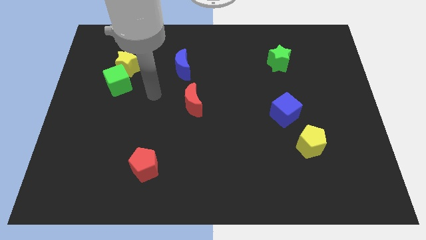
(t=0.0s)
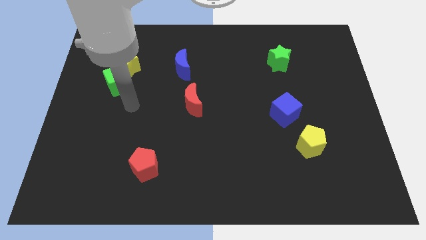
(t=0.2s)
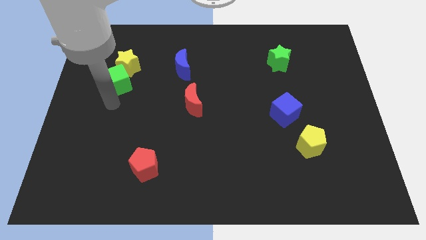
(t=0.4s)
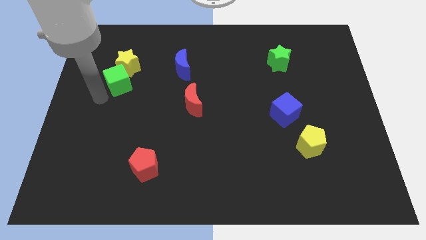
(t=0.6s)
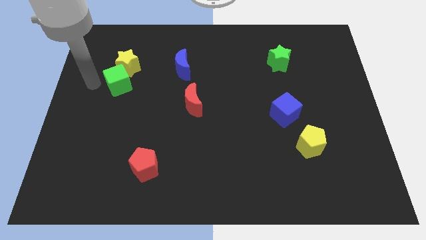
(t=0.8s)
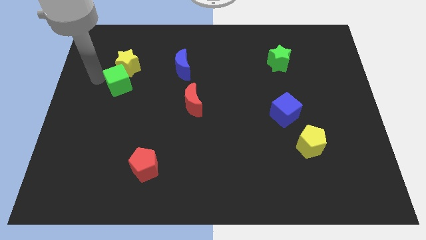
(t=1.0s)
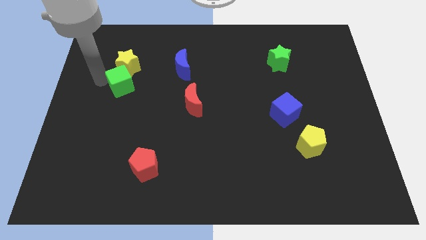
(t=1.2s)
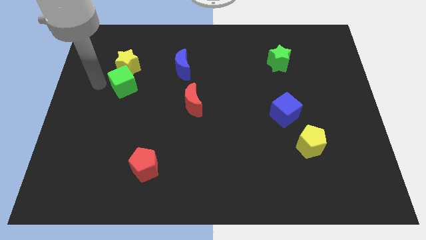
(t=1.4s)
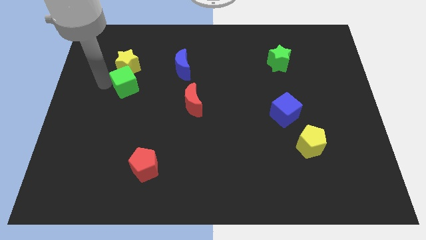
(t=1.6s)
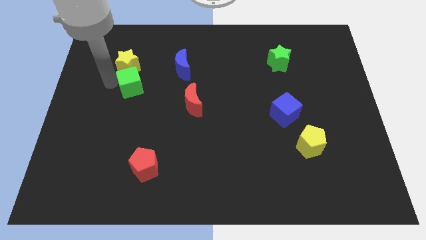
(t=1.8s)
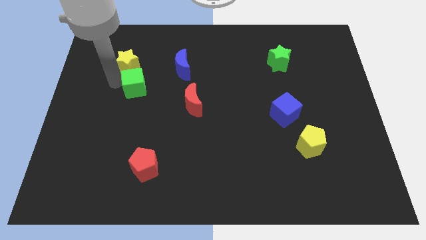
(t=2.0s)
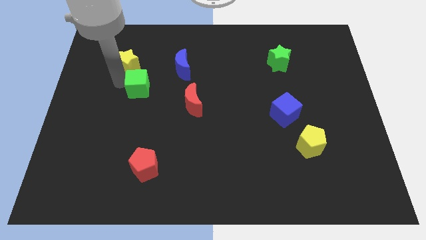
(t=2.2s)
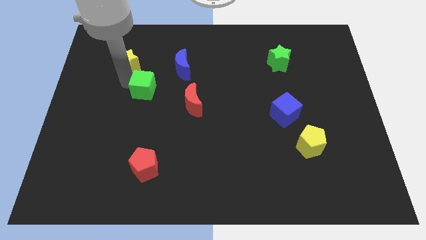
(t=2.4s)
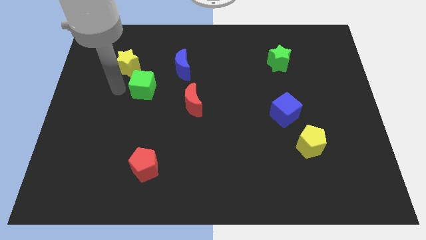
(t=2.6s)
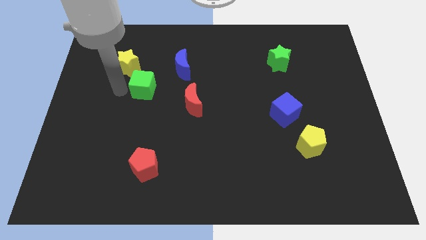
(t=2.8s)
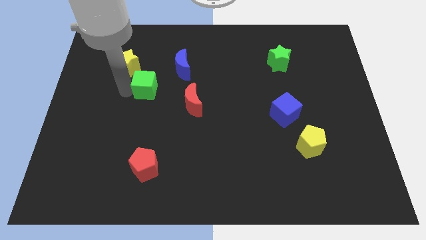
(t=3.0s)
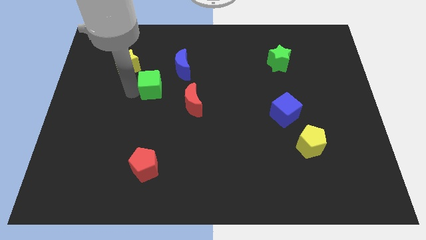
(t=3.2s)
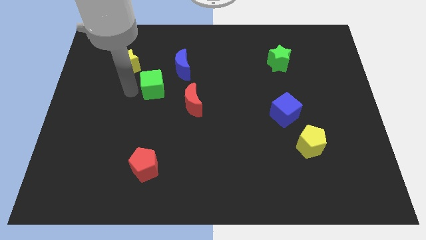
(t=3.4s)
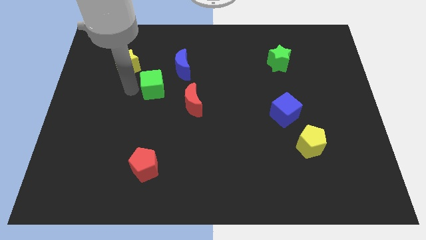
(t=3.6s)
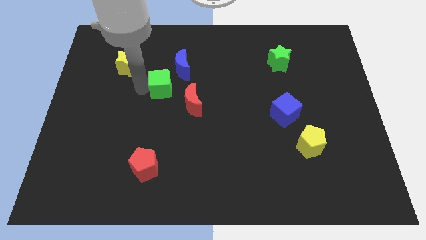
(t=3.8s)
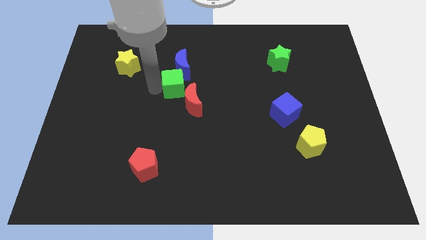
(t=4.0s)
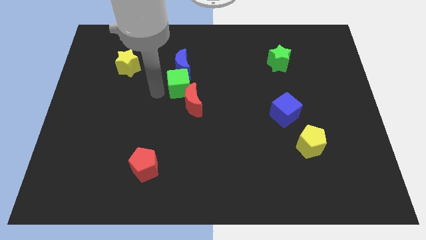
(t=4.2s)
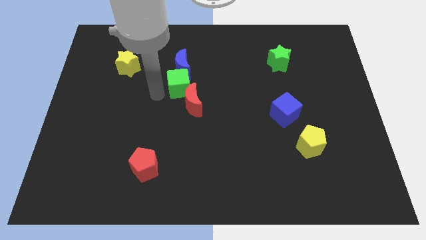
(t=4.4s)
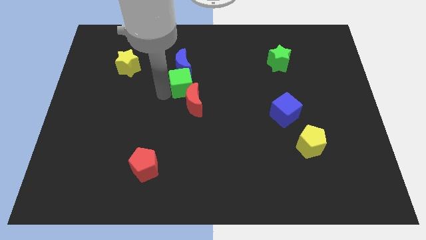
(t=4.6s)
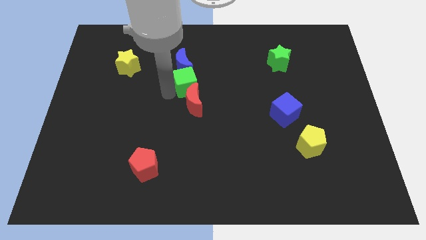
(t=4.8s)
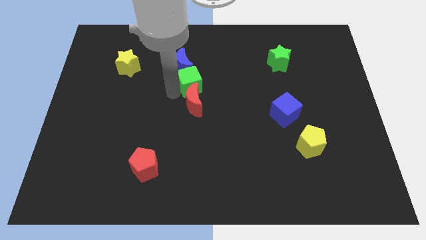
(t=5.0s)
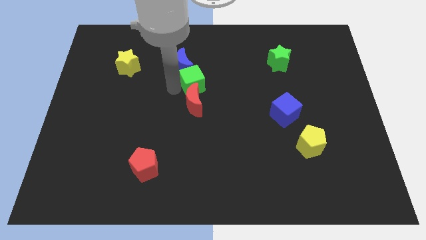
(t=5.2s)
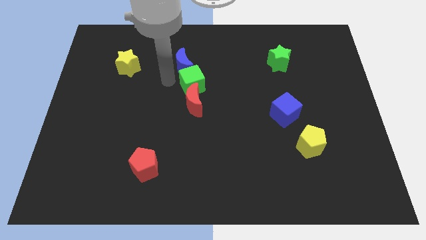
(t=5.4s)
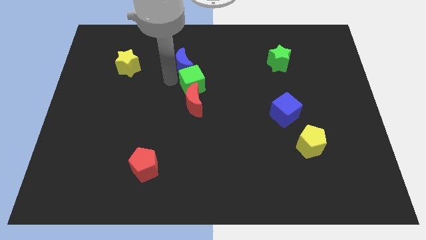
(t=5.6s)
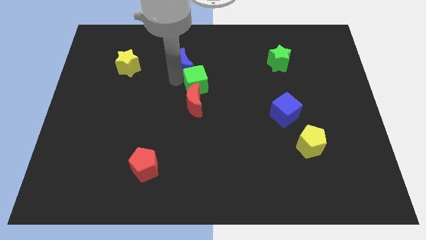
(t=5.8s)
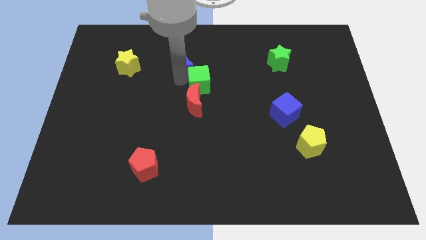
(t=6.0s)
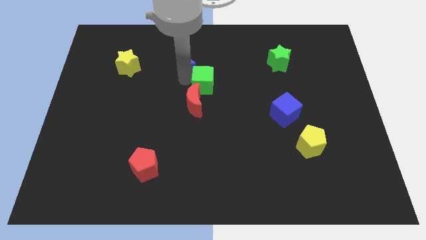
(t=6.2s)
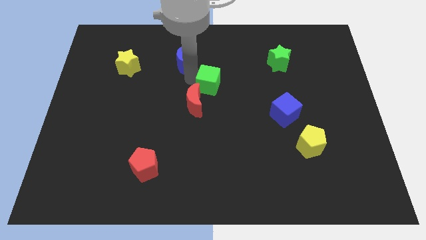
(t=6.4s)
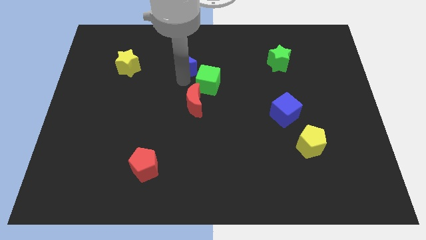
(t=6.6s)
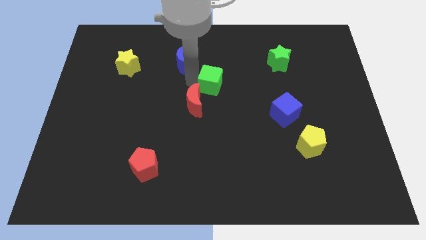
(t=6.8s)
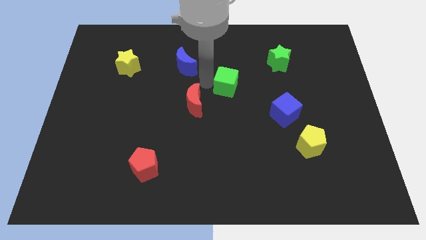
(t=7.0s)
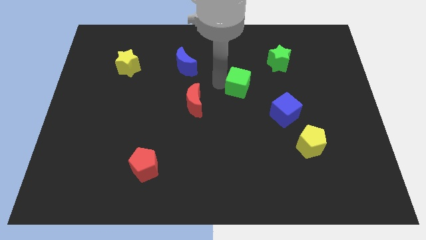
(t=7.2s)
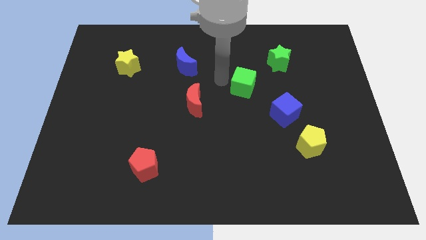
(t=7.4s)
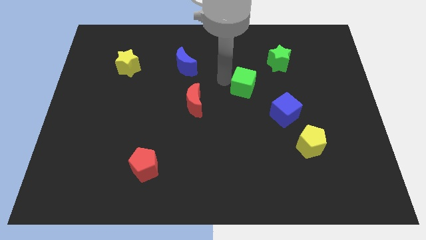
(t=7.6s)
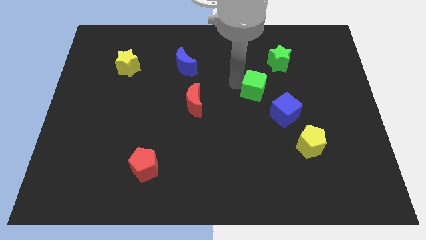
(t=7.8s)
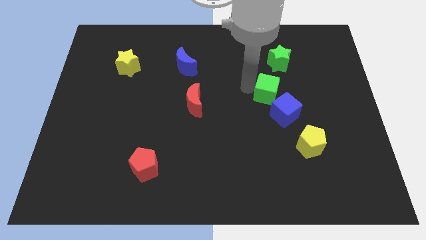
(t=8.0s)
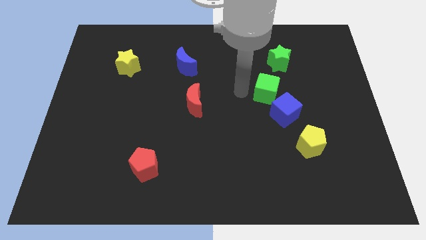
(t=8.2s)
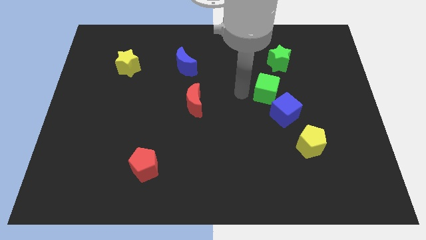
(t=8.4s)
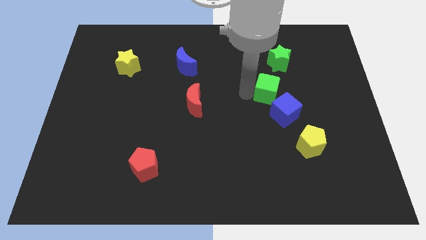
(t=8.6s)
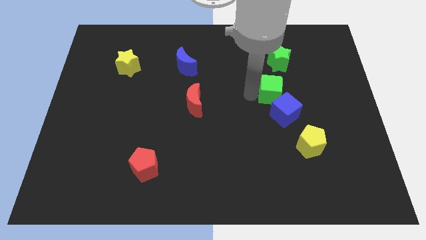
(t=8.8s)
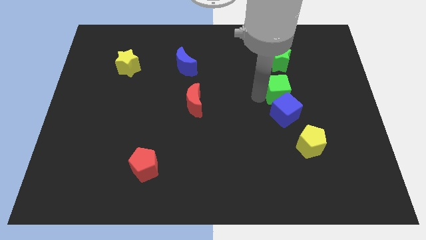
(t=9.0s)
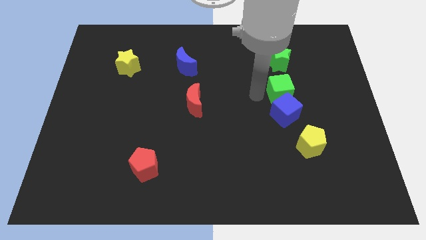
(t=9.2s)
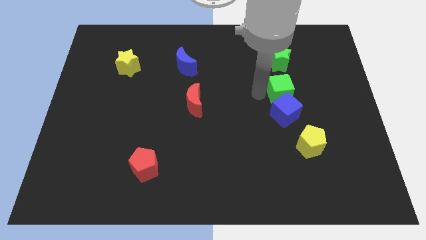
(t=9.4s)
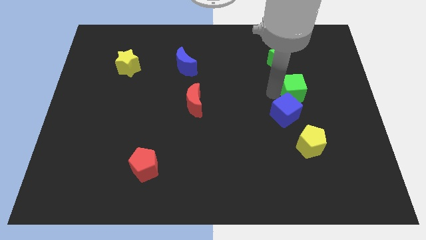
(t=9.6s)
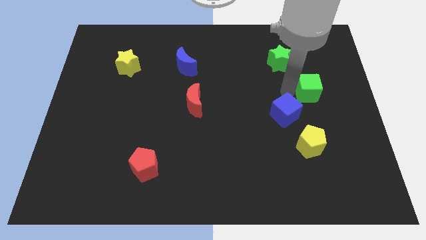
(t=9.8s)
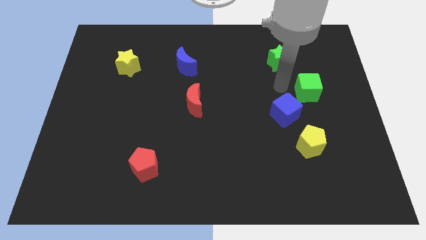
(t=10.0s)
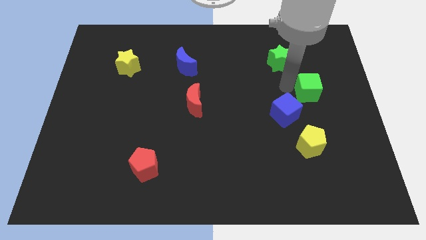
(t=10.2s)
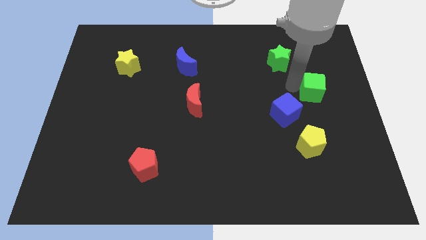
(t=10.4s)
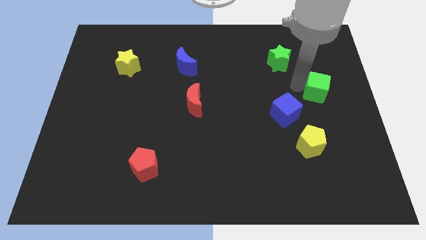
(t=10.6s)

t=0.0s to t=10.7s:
move the green cube to the center right
